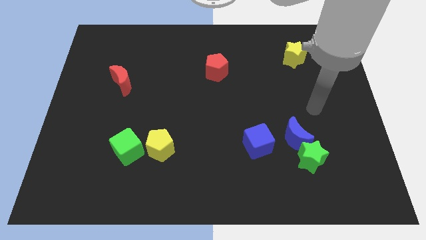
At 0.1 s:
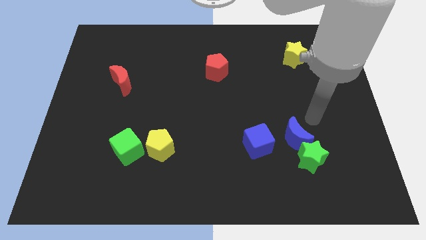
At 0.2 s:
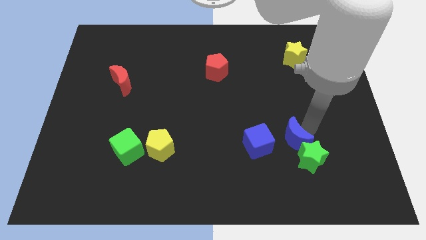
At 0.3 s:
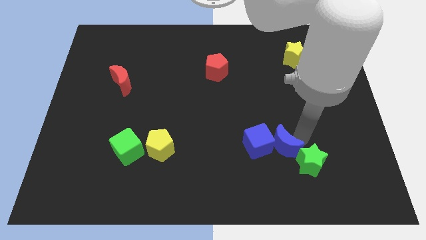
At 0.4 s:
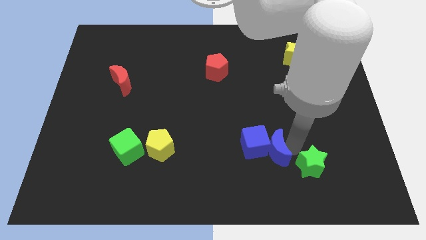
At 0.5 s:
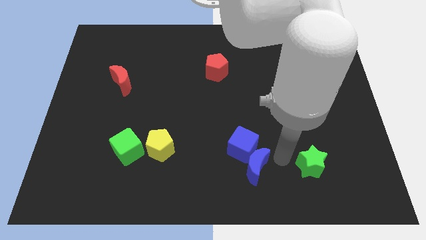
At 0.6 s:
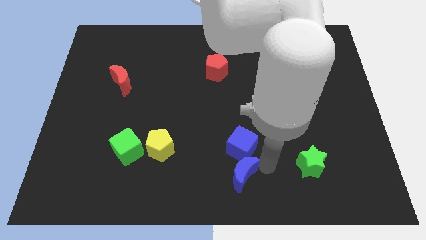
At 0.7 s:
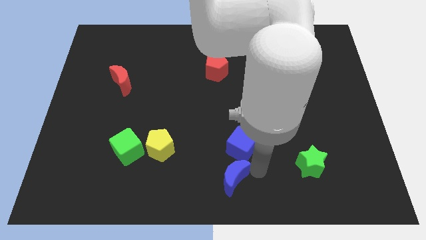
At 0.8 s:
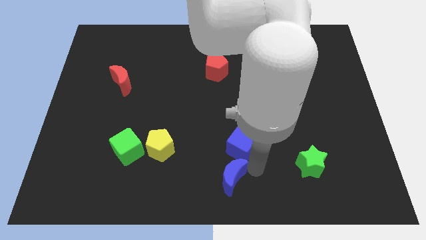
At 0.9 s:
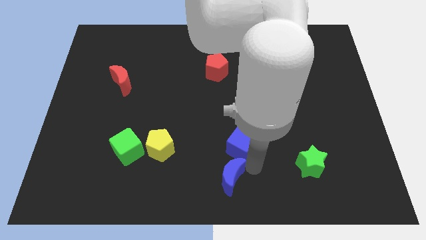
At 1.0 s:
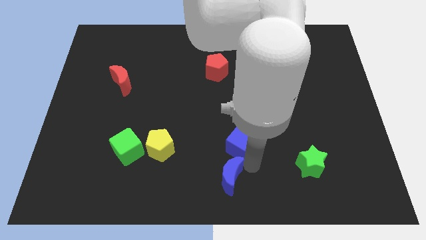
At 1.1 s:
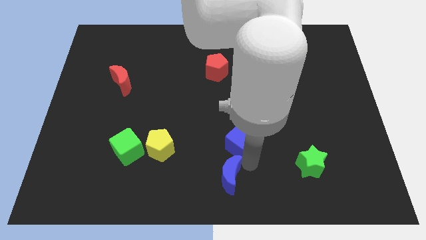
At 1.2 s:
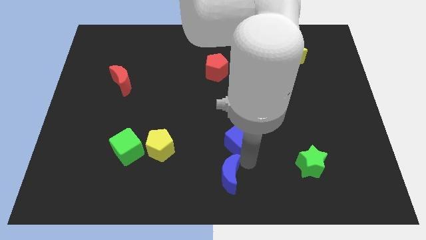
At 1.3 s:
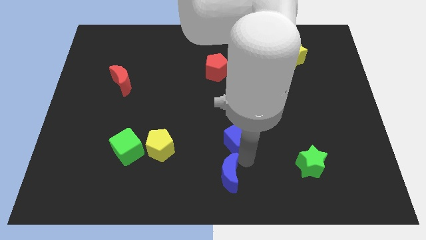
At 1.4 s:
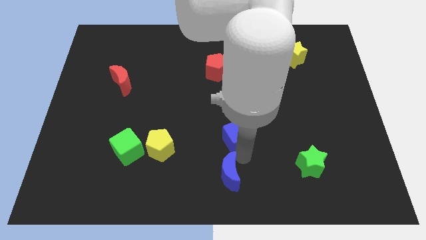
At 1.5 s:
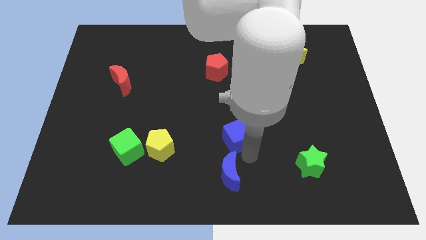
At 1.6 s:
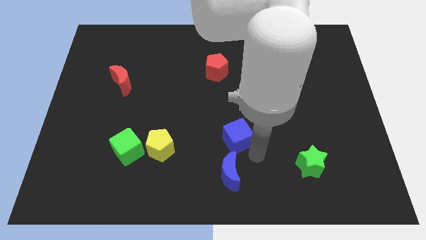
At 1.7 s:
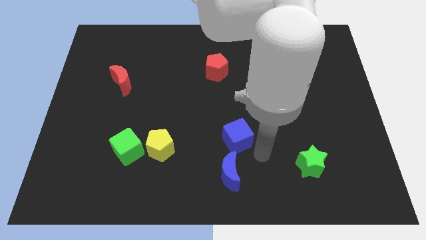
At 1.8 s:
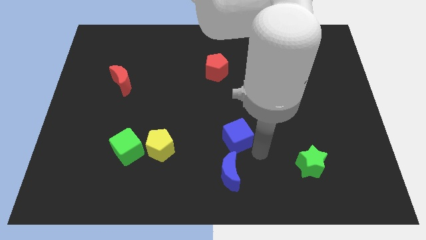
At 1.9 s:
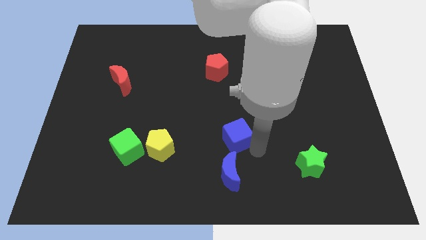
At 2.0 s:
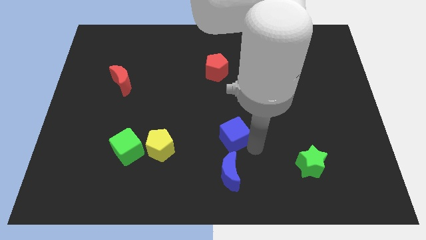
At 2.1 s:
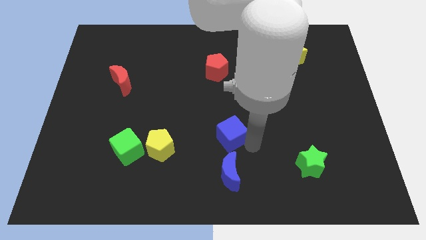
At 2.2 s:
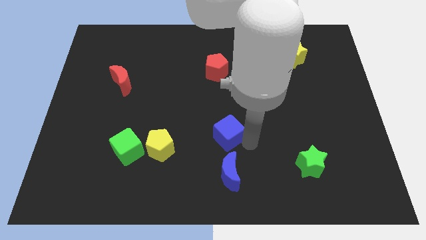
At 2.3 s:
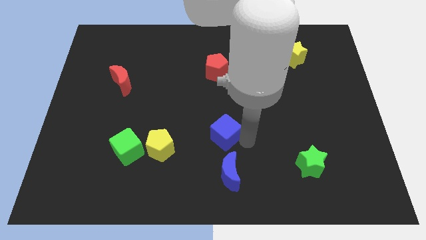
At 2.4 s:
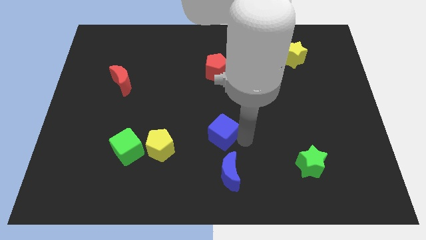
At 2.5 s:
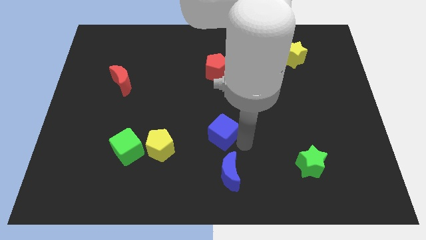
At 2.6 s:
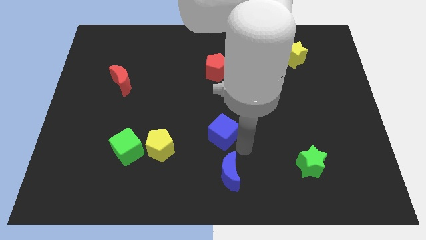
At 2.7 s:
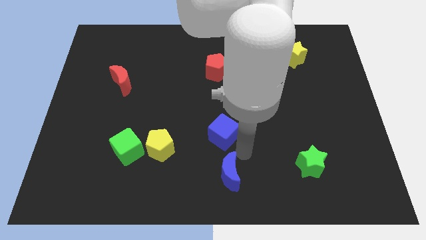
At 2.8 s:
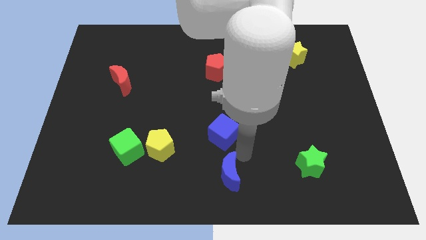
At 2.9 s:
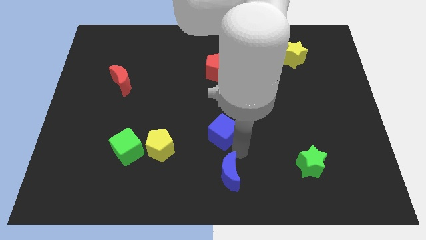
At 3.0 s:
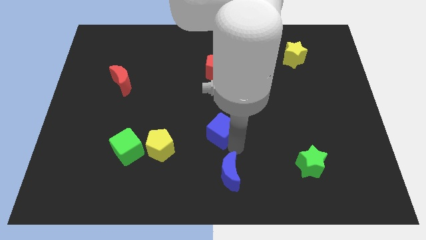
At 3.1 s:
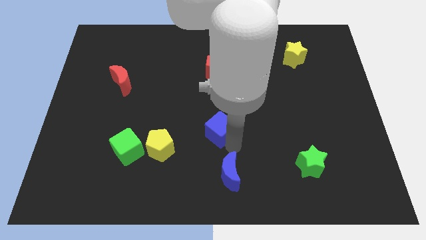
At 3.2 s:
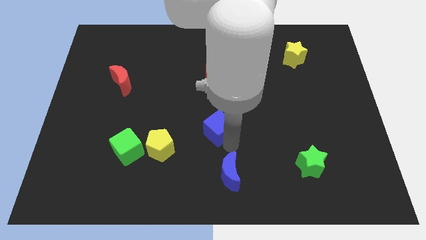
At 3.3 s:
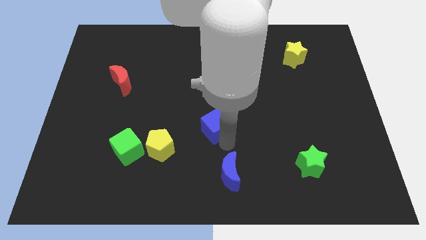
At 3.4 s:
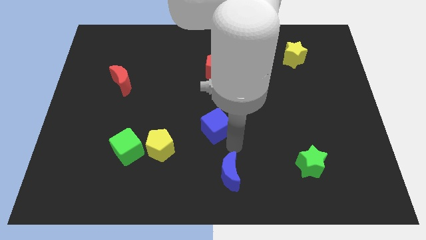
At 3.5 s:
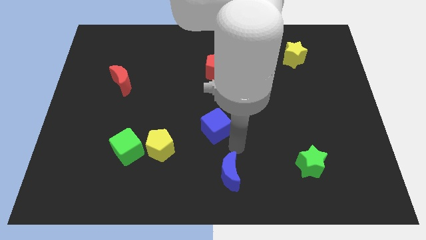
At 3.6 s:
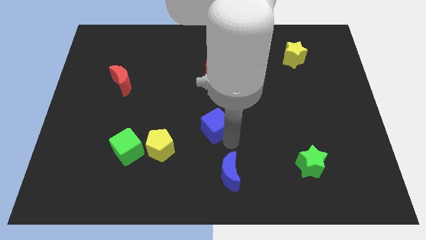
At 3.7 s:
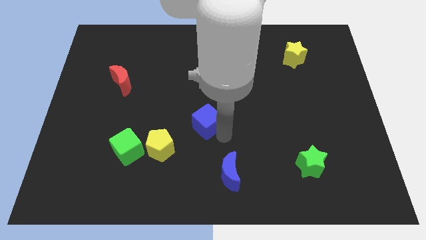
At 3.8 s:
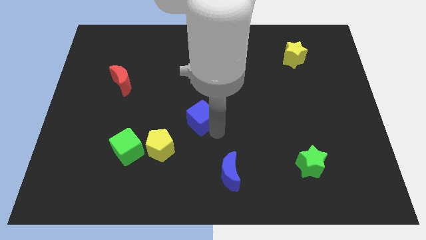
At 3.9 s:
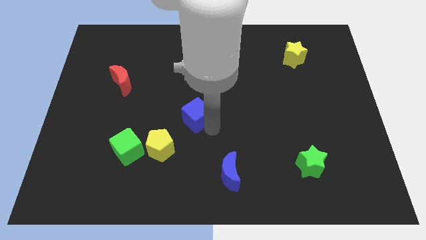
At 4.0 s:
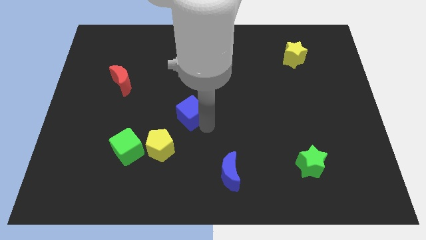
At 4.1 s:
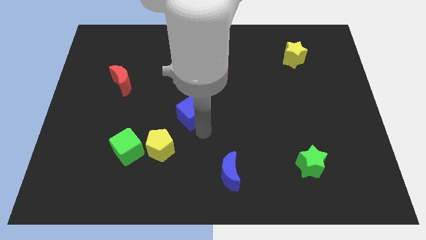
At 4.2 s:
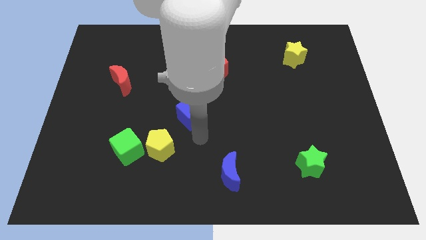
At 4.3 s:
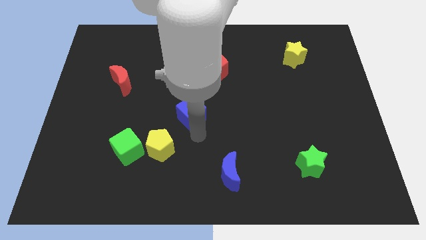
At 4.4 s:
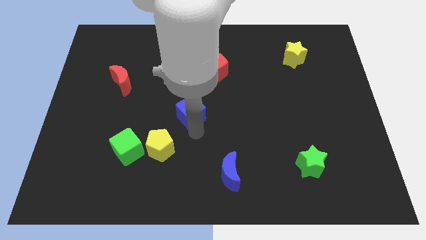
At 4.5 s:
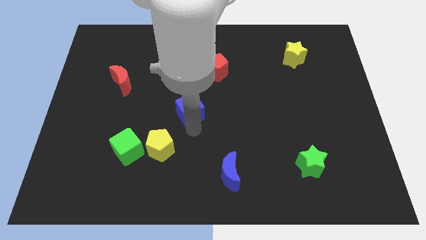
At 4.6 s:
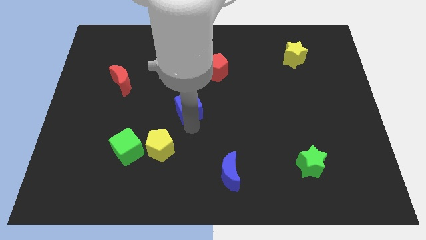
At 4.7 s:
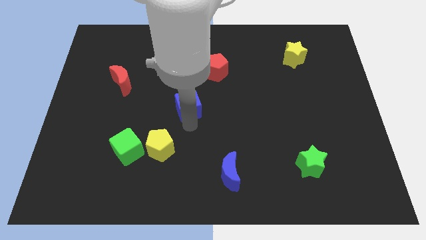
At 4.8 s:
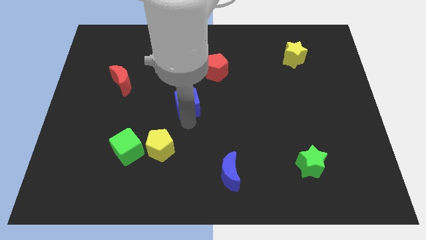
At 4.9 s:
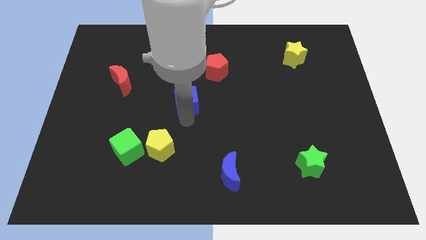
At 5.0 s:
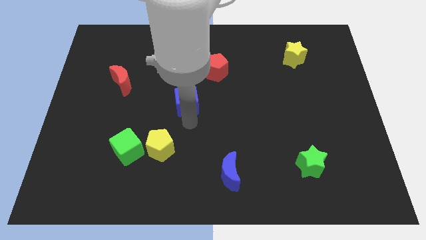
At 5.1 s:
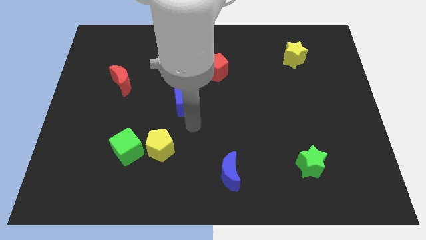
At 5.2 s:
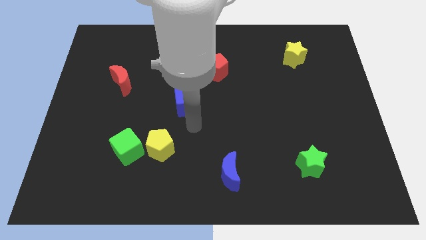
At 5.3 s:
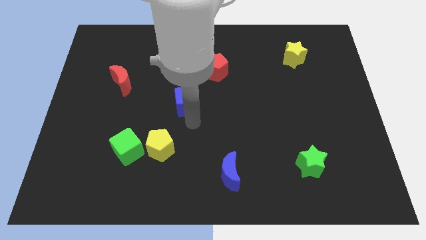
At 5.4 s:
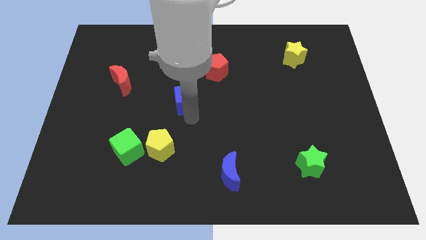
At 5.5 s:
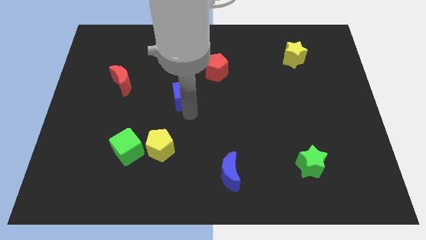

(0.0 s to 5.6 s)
slide the blue cube diagonally upwards and to the left

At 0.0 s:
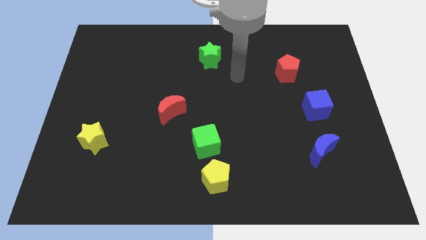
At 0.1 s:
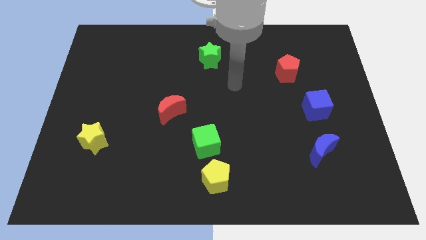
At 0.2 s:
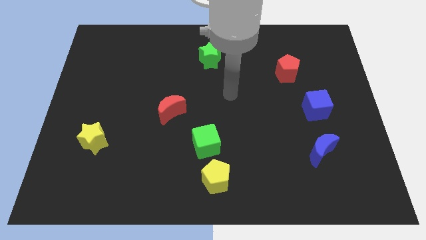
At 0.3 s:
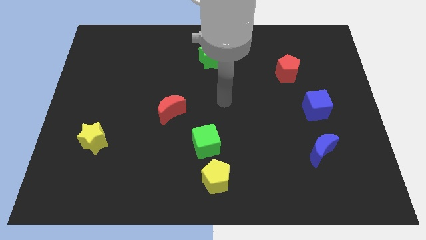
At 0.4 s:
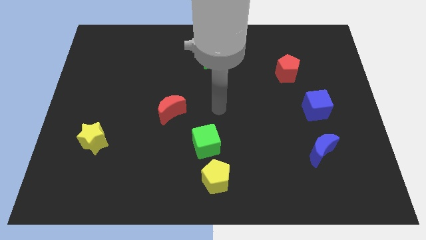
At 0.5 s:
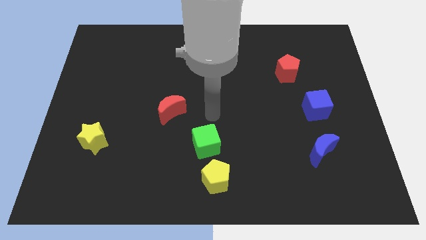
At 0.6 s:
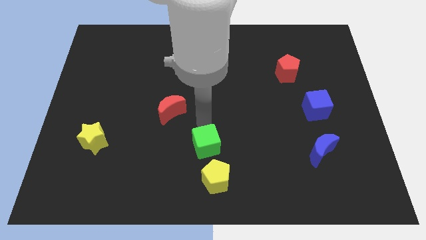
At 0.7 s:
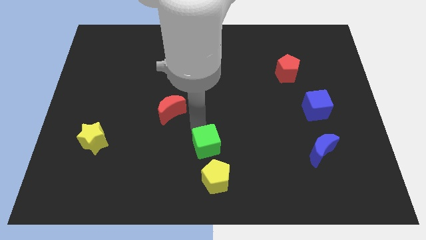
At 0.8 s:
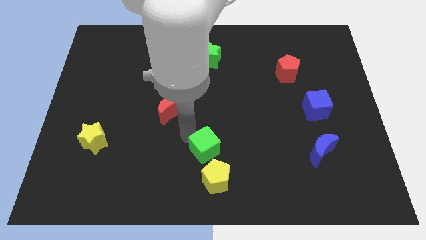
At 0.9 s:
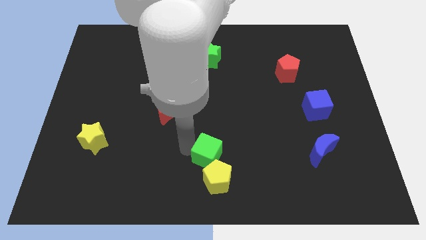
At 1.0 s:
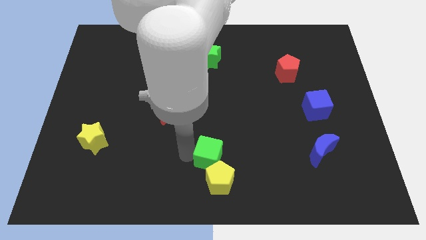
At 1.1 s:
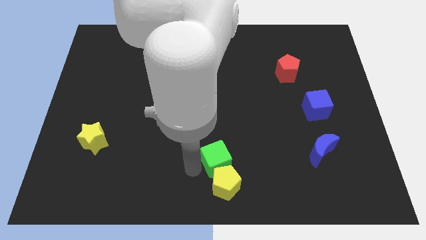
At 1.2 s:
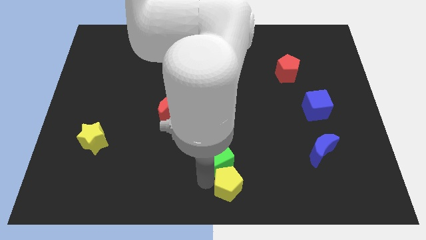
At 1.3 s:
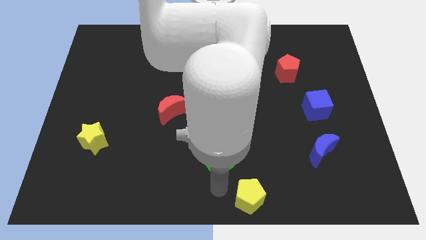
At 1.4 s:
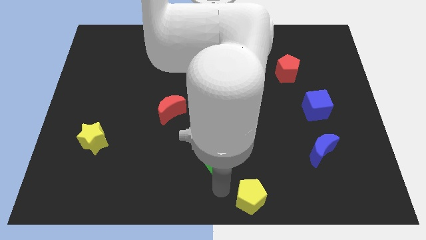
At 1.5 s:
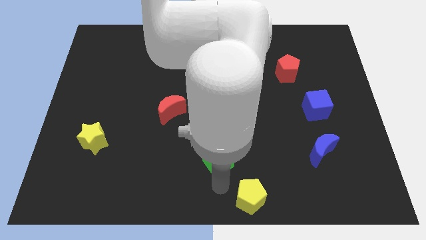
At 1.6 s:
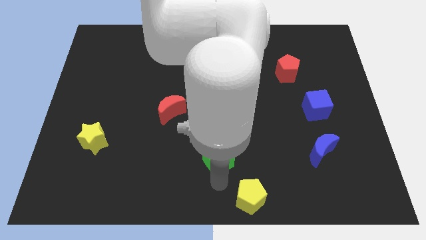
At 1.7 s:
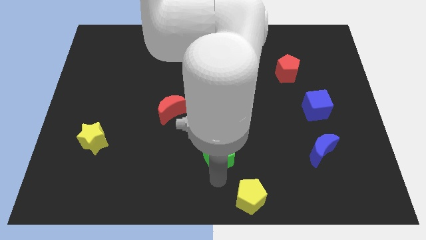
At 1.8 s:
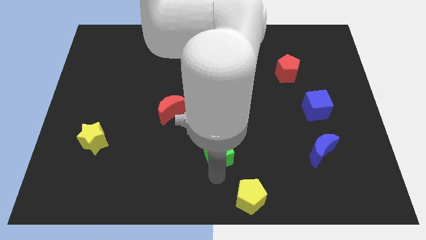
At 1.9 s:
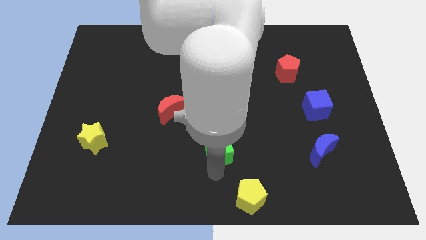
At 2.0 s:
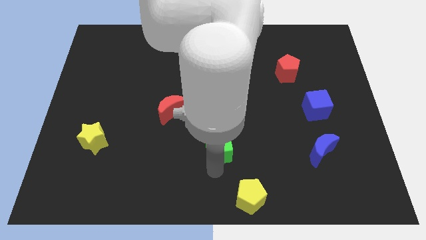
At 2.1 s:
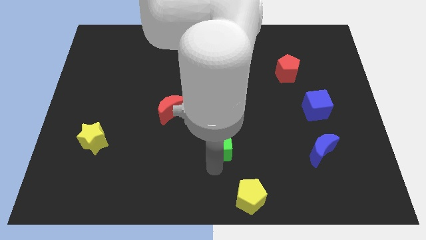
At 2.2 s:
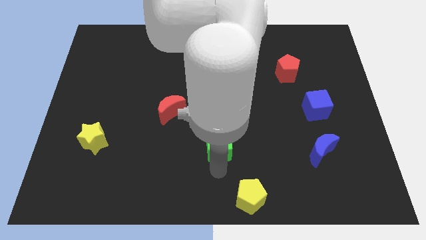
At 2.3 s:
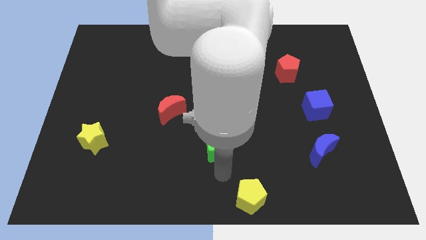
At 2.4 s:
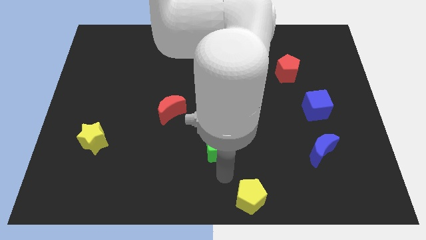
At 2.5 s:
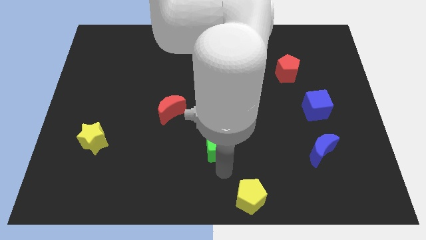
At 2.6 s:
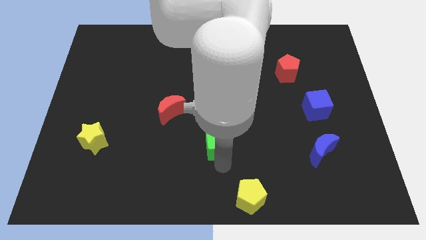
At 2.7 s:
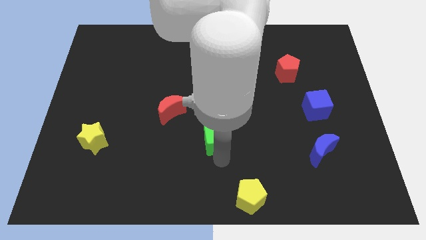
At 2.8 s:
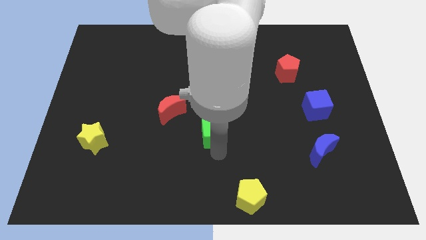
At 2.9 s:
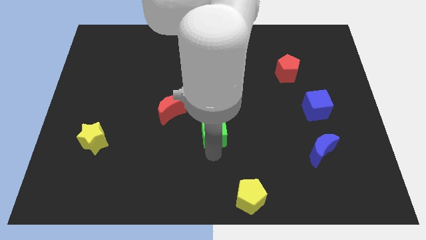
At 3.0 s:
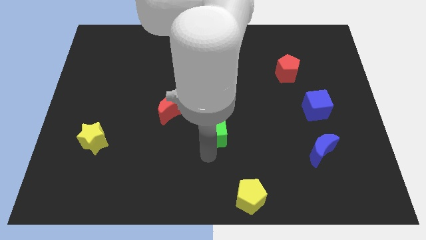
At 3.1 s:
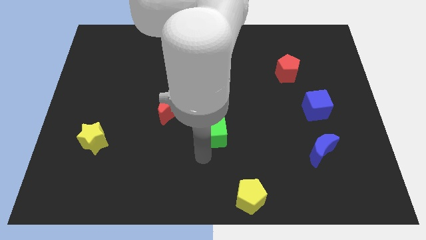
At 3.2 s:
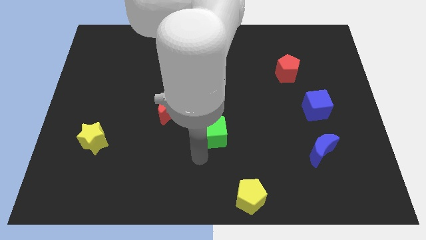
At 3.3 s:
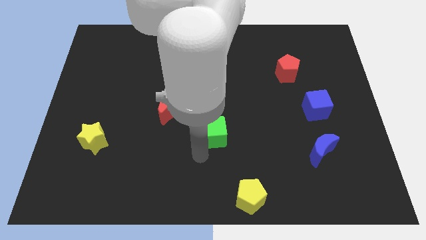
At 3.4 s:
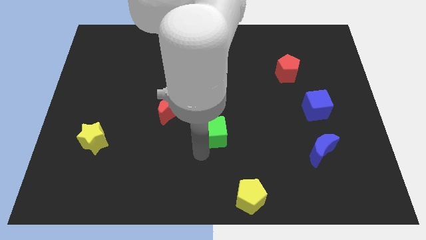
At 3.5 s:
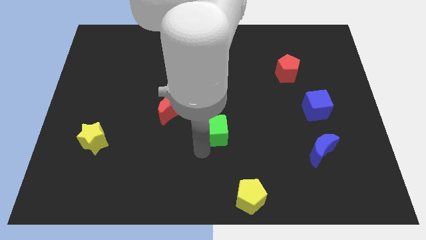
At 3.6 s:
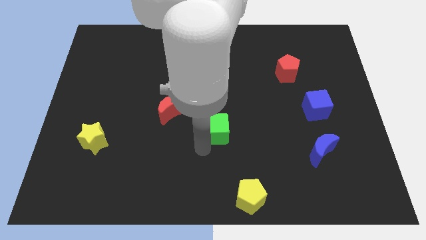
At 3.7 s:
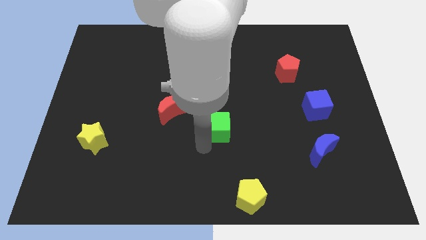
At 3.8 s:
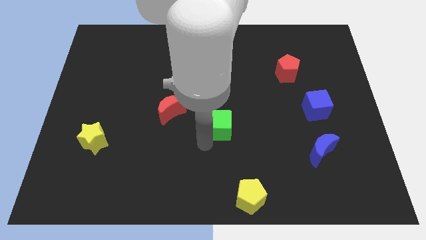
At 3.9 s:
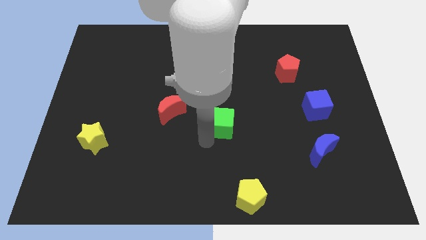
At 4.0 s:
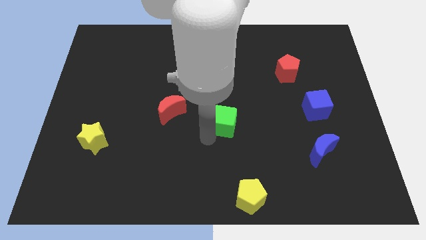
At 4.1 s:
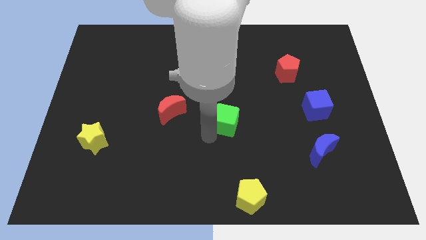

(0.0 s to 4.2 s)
move the green cube a bit up and right diagonally
